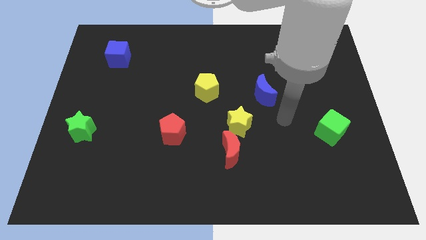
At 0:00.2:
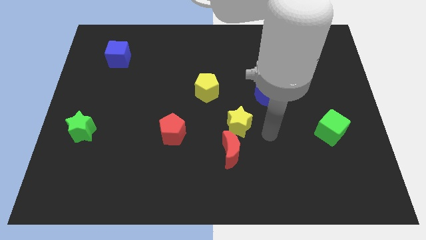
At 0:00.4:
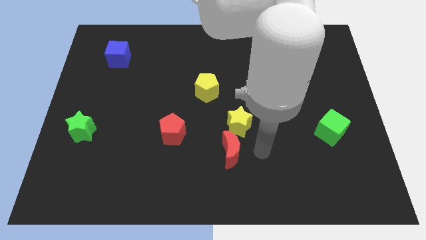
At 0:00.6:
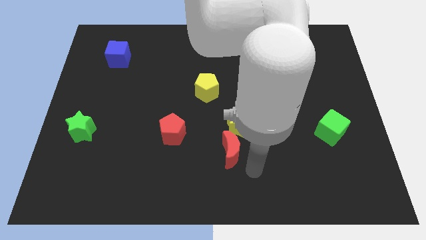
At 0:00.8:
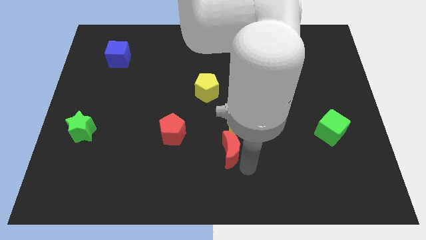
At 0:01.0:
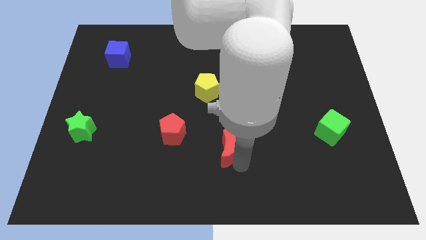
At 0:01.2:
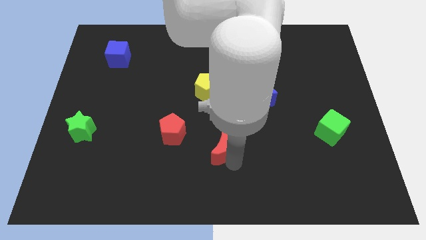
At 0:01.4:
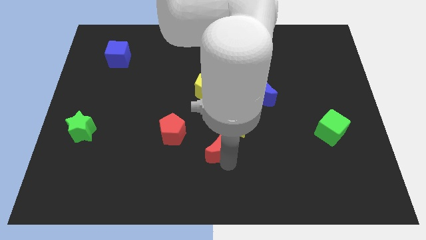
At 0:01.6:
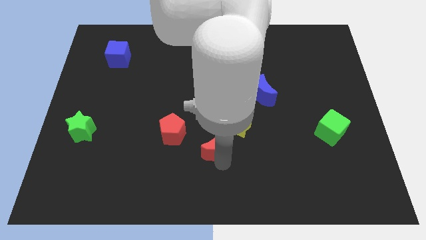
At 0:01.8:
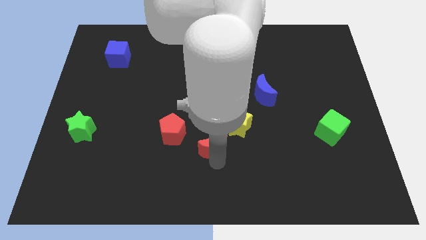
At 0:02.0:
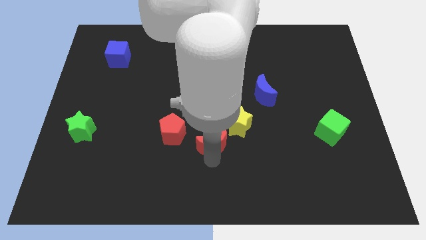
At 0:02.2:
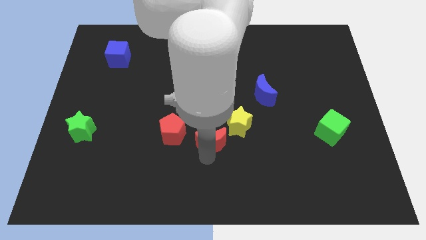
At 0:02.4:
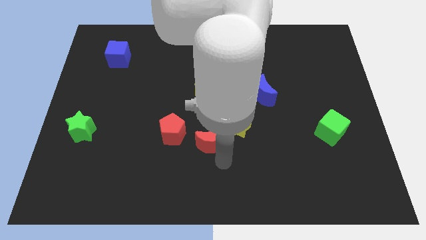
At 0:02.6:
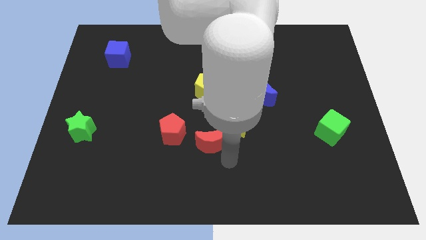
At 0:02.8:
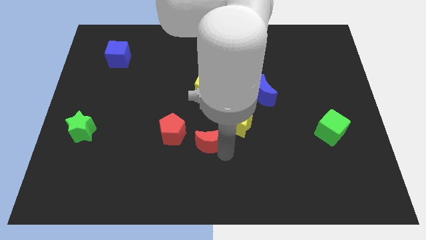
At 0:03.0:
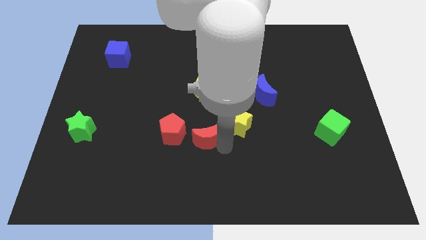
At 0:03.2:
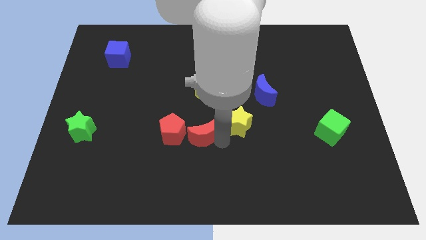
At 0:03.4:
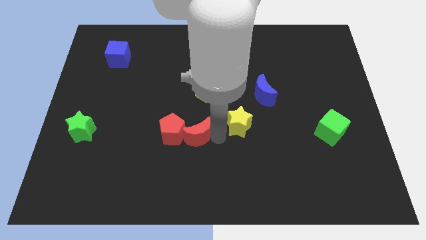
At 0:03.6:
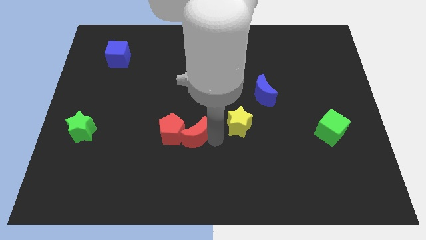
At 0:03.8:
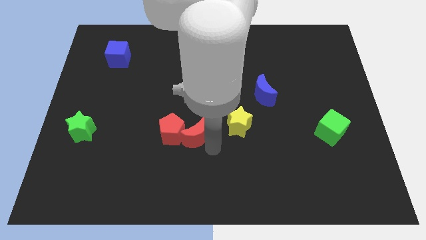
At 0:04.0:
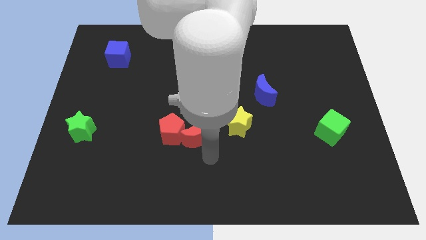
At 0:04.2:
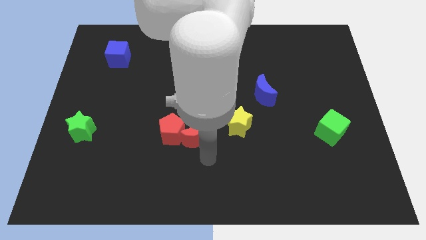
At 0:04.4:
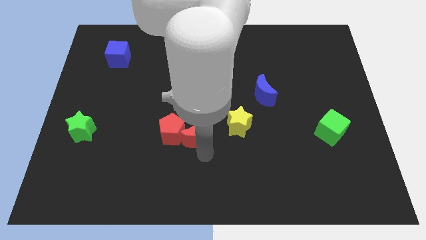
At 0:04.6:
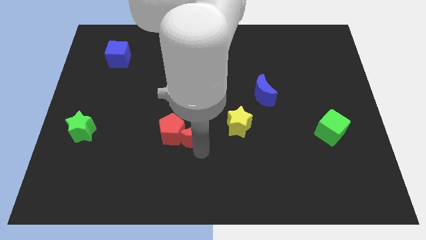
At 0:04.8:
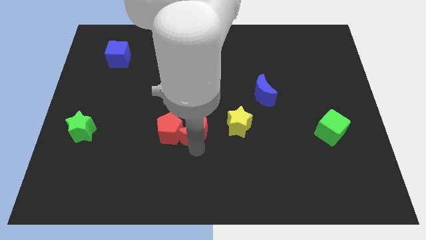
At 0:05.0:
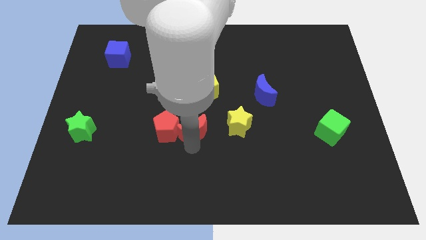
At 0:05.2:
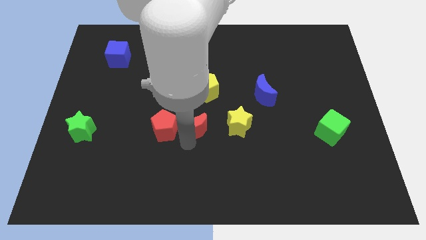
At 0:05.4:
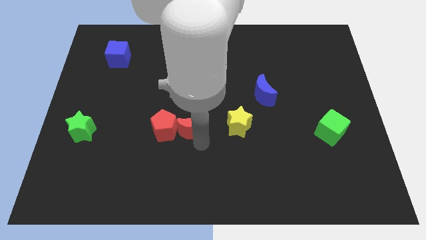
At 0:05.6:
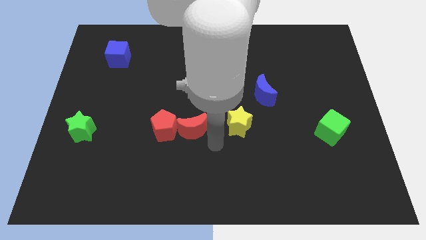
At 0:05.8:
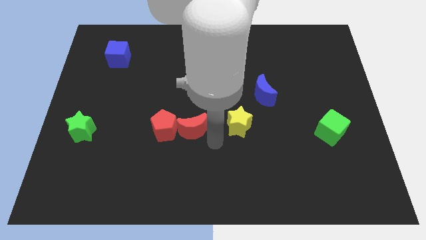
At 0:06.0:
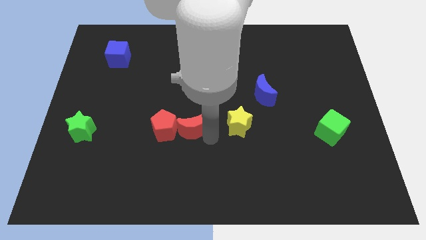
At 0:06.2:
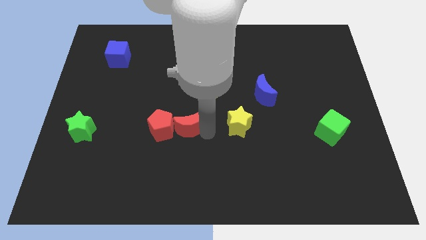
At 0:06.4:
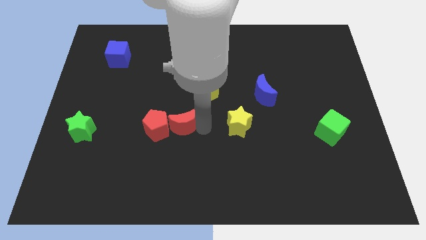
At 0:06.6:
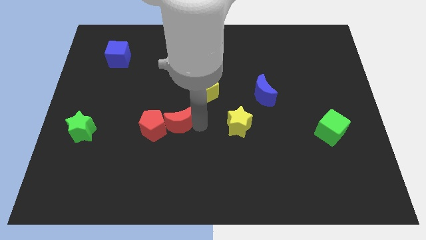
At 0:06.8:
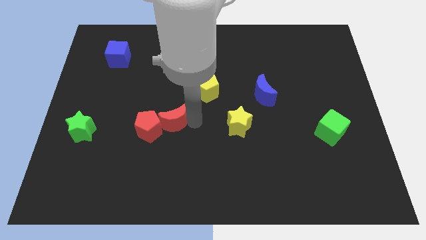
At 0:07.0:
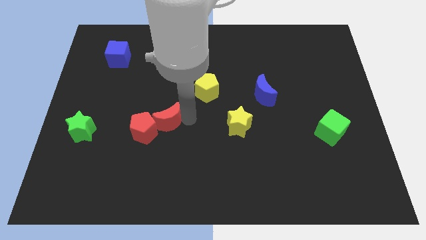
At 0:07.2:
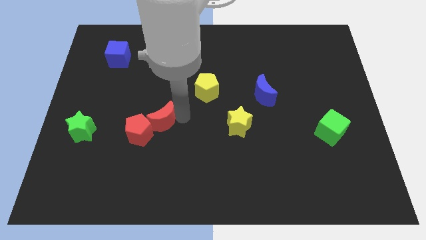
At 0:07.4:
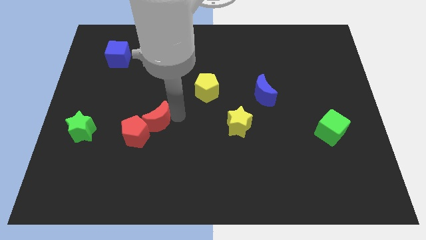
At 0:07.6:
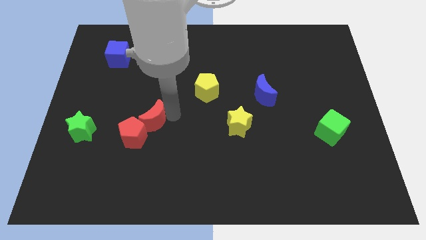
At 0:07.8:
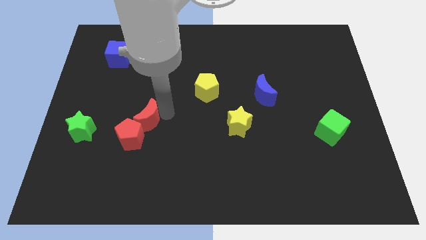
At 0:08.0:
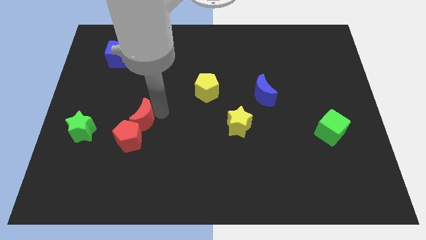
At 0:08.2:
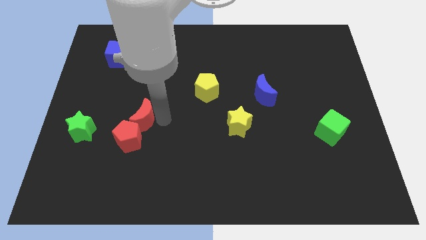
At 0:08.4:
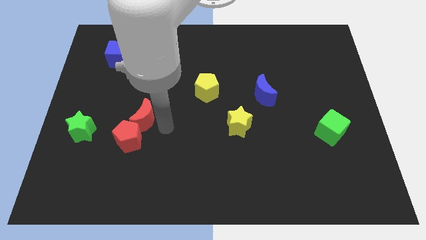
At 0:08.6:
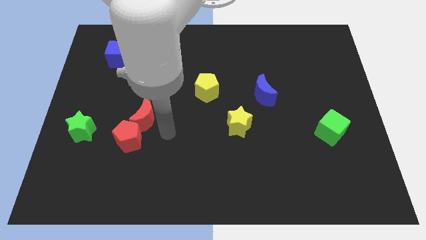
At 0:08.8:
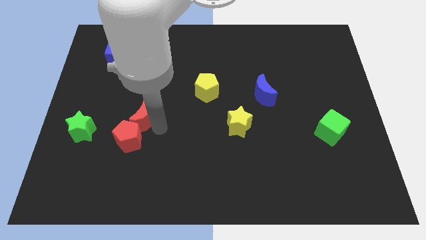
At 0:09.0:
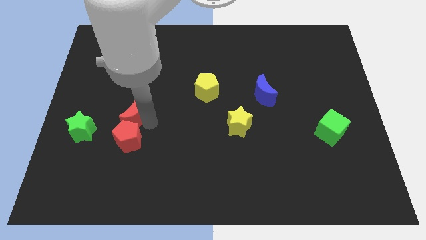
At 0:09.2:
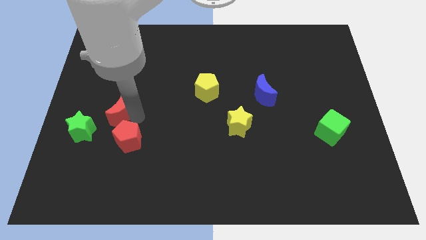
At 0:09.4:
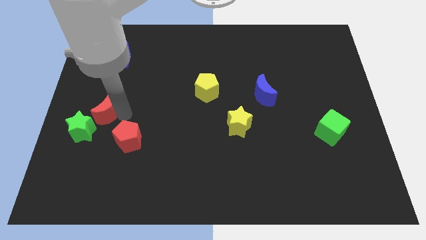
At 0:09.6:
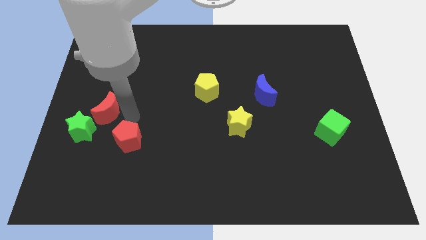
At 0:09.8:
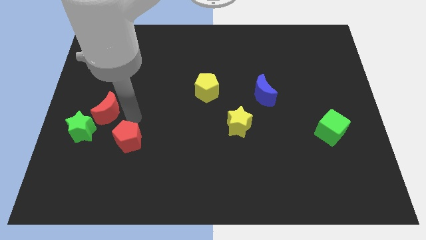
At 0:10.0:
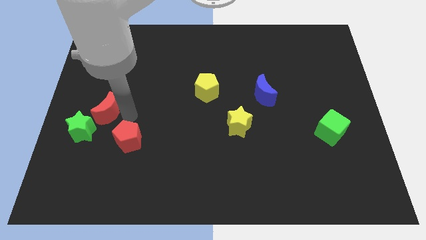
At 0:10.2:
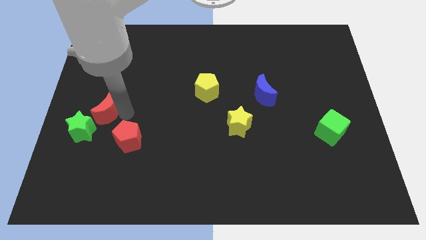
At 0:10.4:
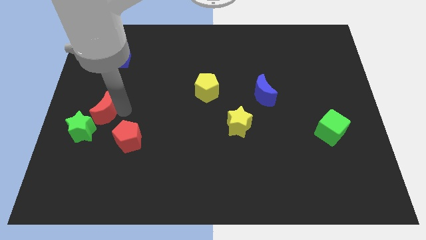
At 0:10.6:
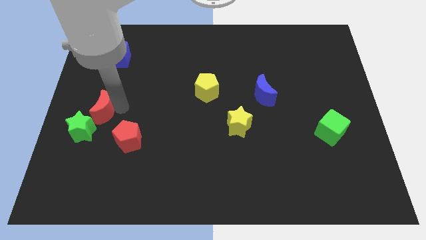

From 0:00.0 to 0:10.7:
move the red moon to the center left

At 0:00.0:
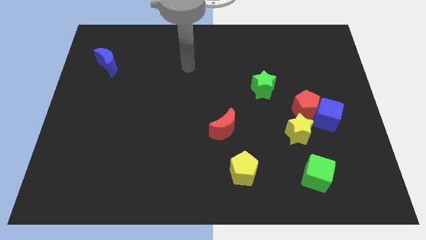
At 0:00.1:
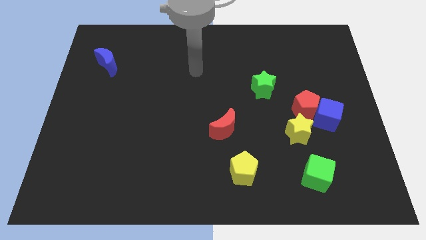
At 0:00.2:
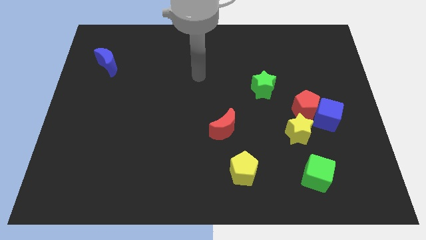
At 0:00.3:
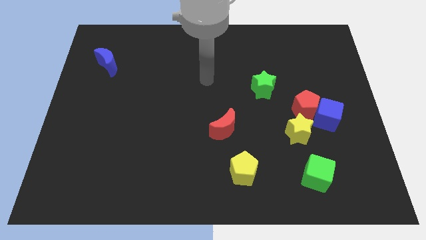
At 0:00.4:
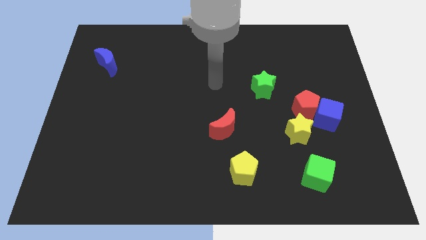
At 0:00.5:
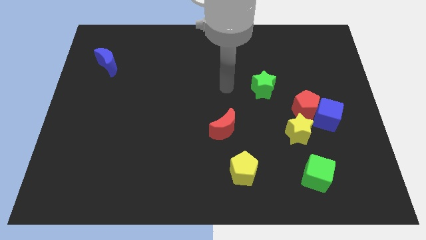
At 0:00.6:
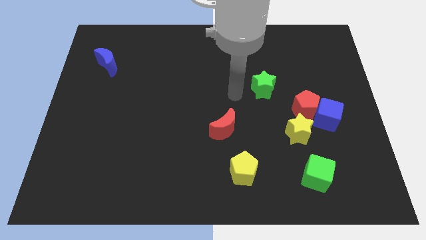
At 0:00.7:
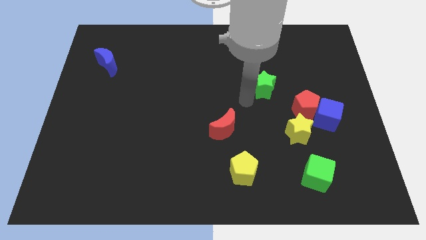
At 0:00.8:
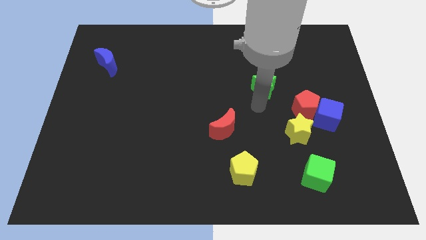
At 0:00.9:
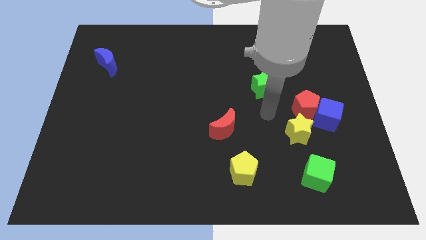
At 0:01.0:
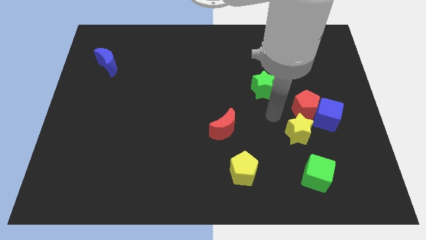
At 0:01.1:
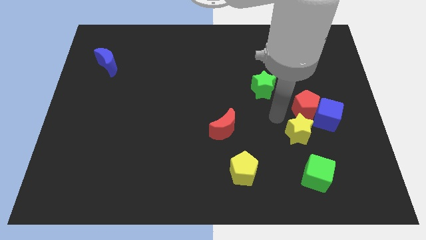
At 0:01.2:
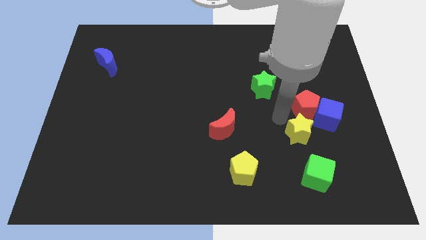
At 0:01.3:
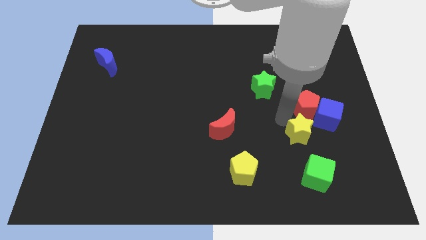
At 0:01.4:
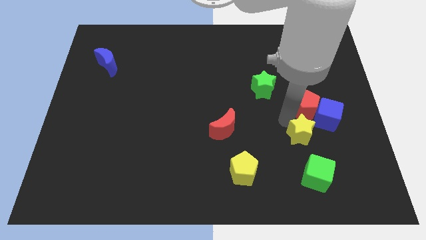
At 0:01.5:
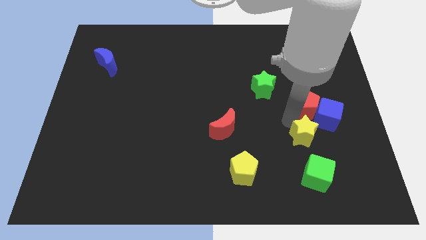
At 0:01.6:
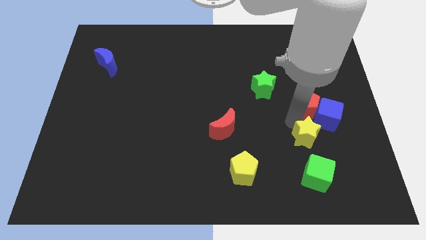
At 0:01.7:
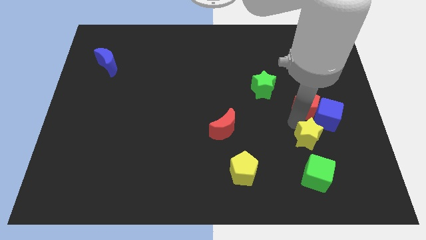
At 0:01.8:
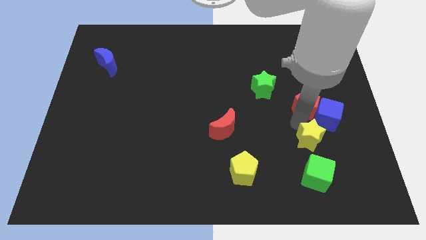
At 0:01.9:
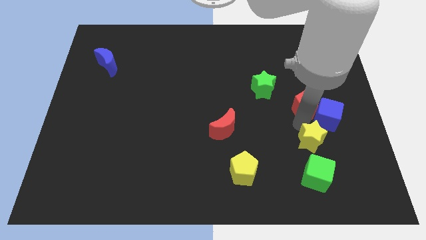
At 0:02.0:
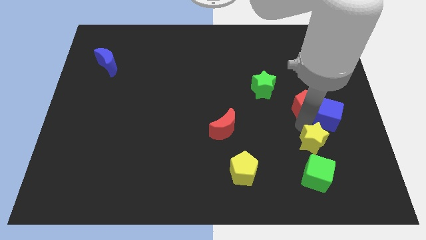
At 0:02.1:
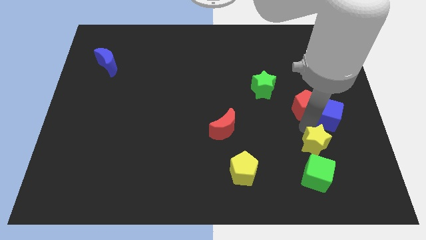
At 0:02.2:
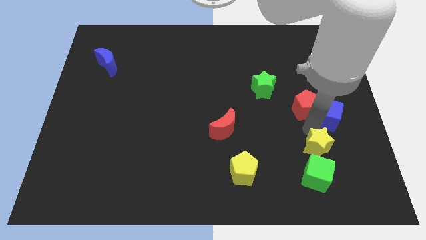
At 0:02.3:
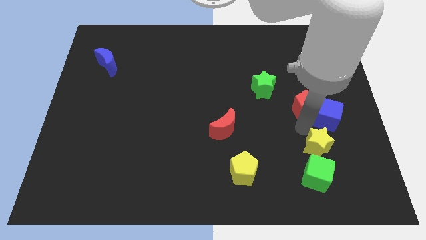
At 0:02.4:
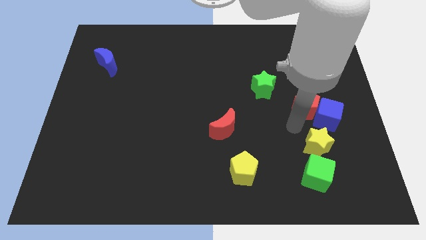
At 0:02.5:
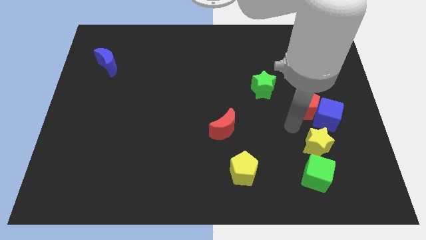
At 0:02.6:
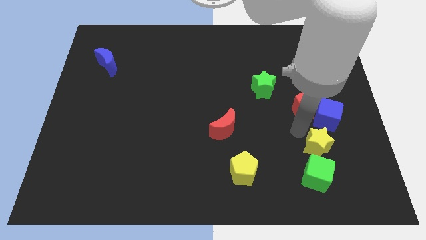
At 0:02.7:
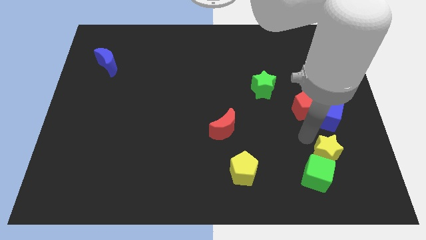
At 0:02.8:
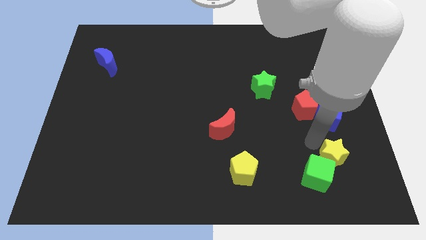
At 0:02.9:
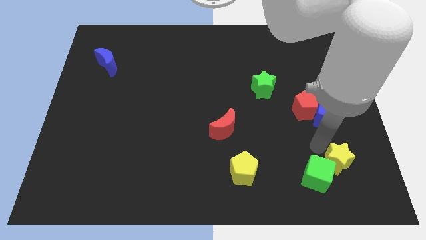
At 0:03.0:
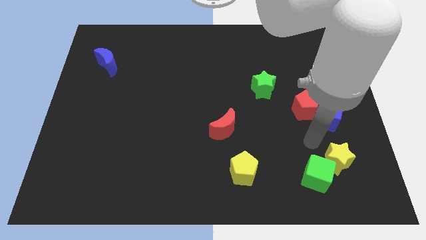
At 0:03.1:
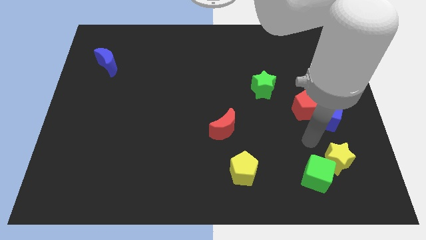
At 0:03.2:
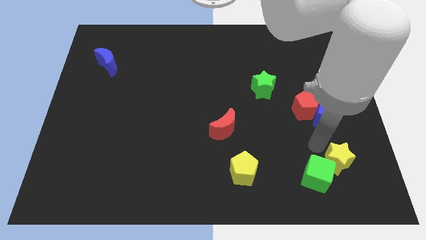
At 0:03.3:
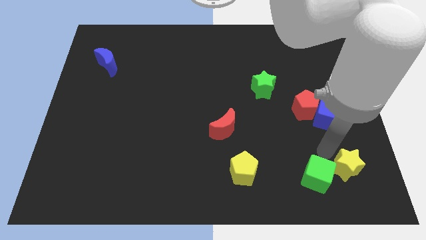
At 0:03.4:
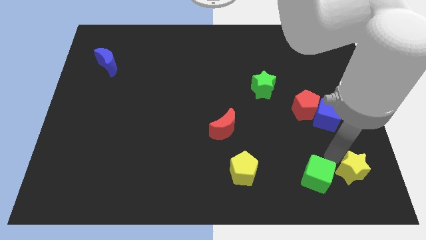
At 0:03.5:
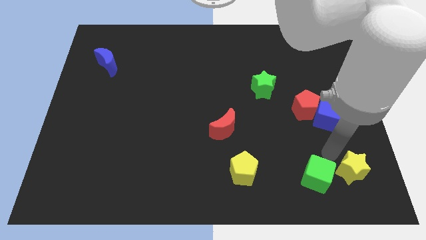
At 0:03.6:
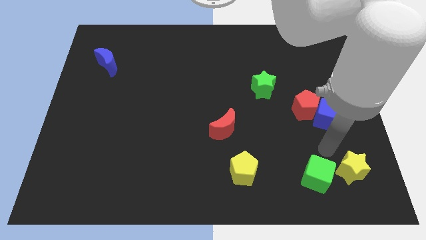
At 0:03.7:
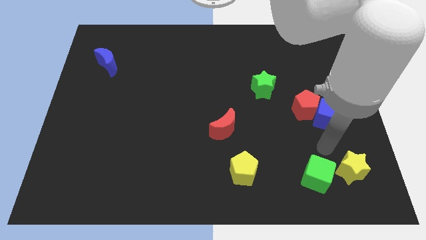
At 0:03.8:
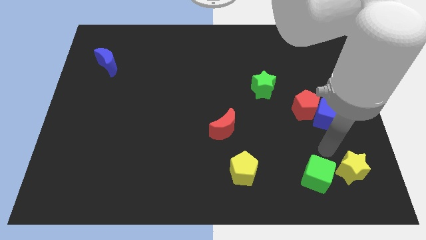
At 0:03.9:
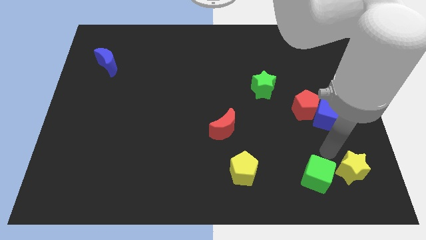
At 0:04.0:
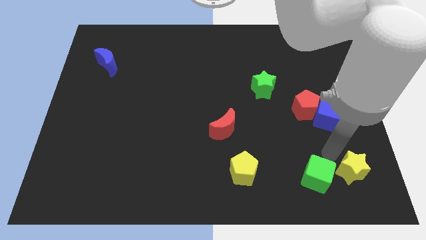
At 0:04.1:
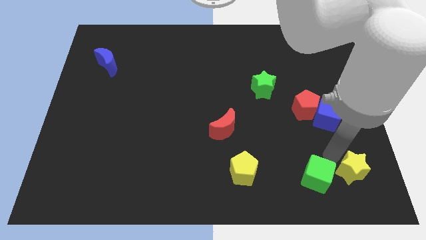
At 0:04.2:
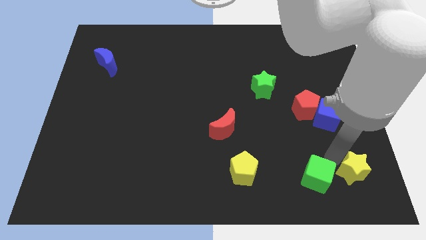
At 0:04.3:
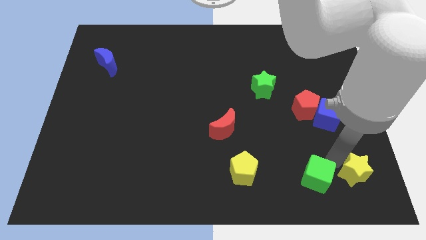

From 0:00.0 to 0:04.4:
move the yellow star to the bottom right of the board
